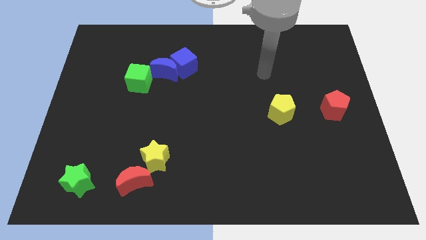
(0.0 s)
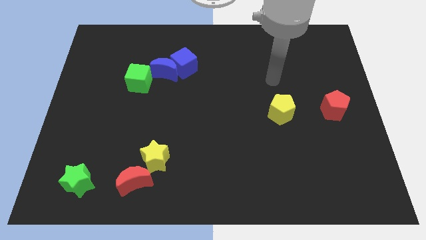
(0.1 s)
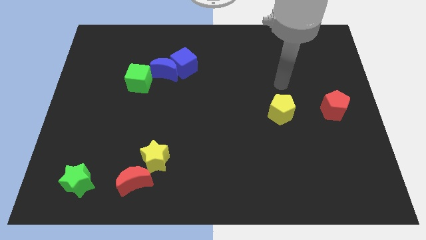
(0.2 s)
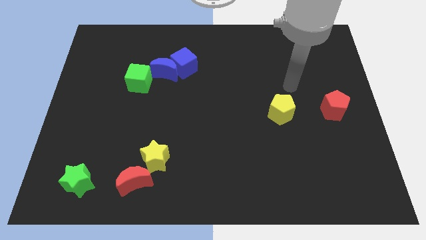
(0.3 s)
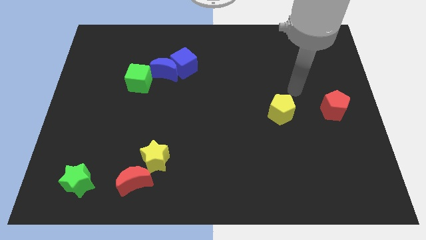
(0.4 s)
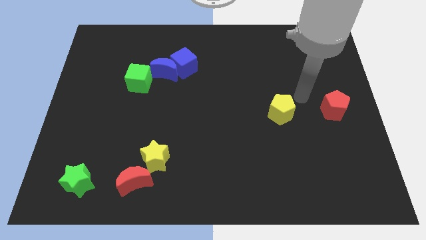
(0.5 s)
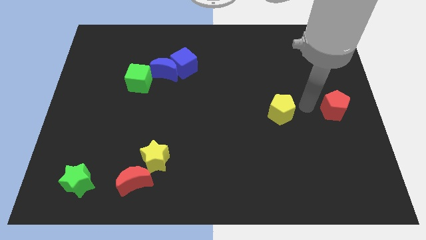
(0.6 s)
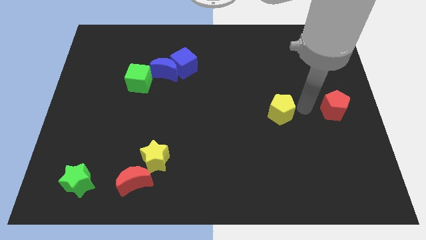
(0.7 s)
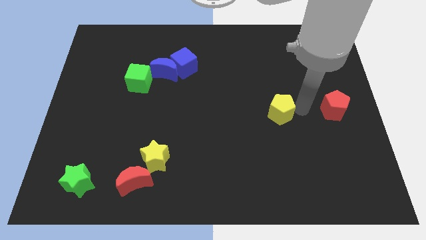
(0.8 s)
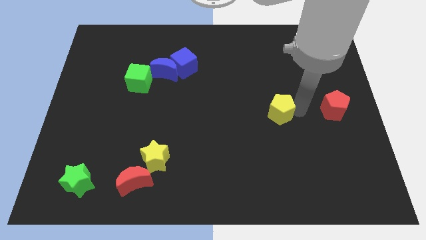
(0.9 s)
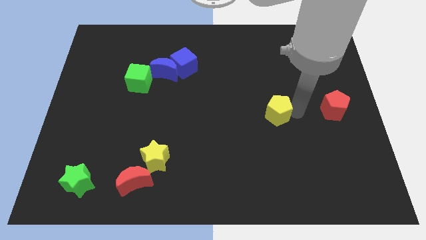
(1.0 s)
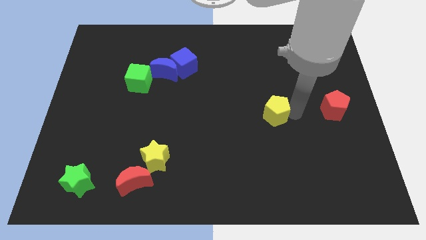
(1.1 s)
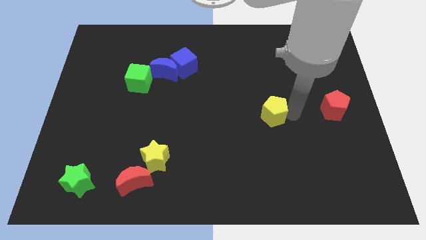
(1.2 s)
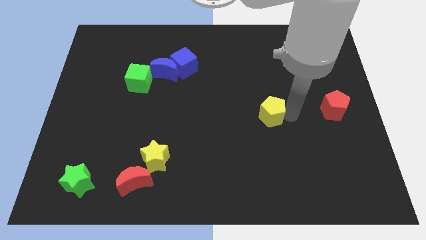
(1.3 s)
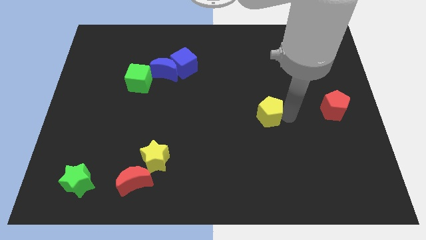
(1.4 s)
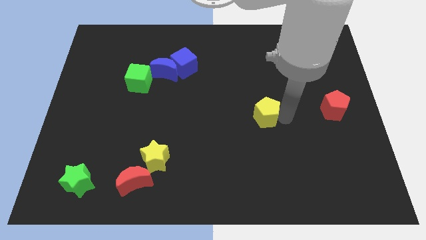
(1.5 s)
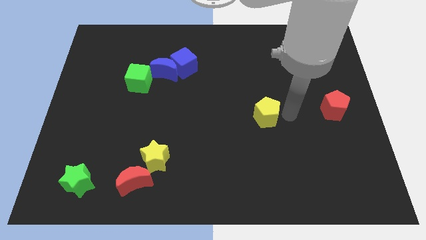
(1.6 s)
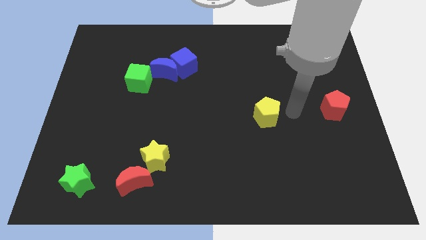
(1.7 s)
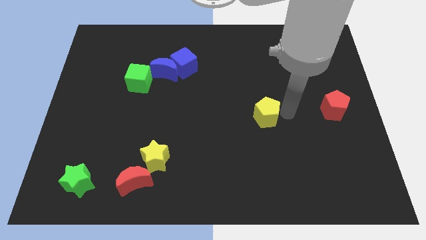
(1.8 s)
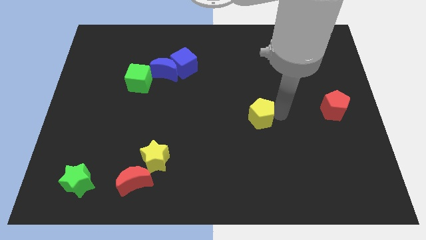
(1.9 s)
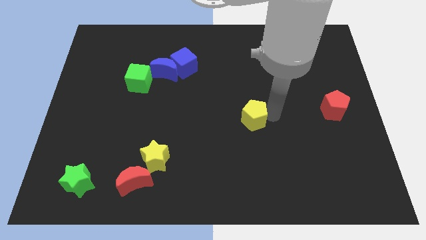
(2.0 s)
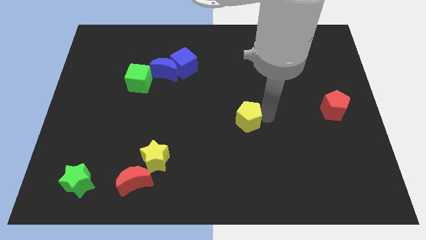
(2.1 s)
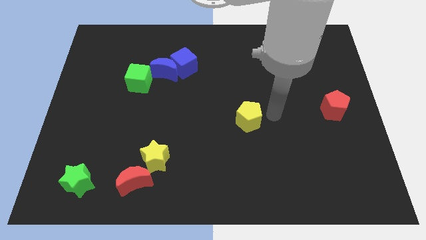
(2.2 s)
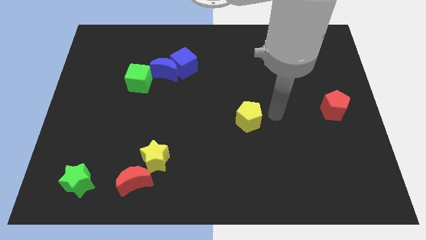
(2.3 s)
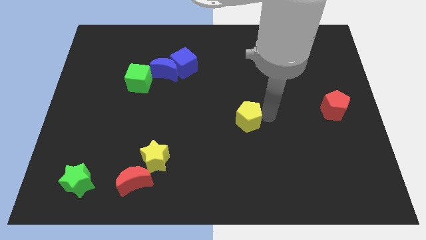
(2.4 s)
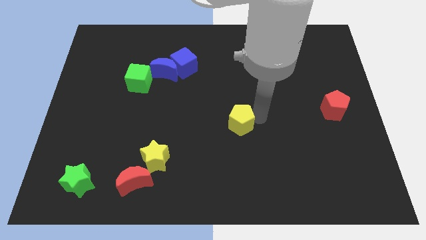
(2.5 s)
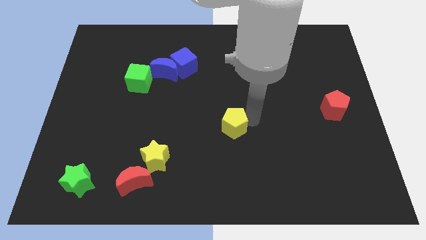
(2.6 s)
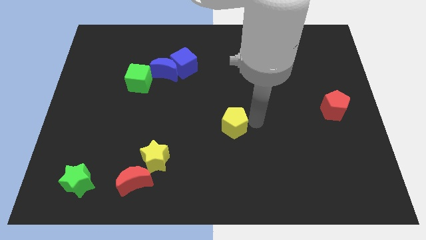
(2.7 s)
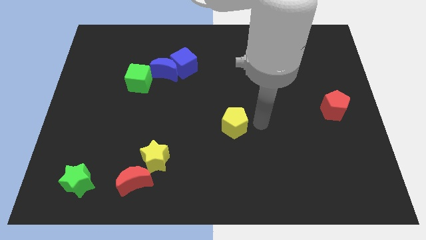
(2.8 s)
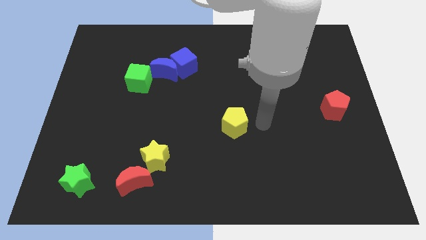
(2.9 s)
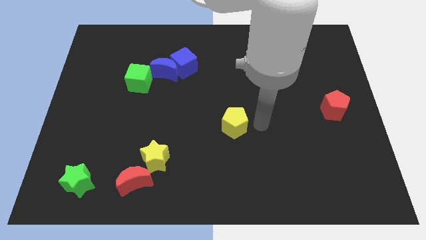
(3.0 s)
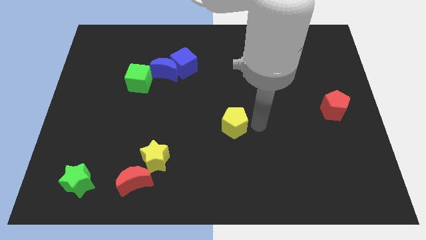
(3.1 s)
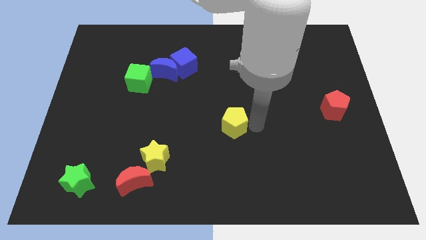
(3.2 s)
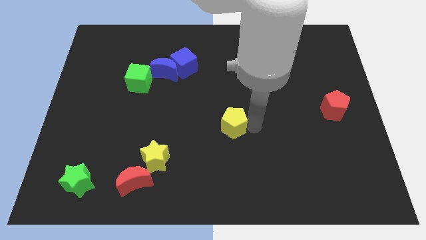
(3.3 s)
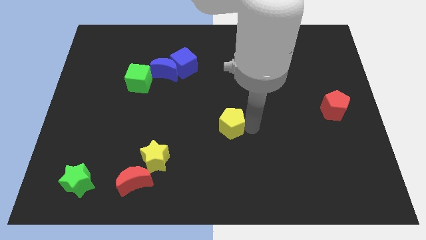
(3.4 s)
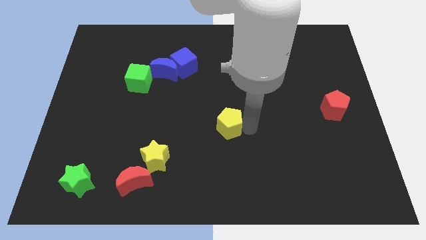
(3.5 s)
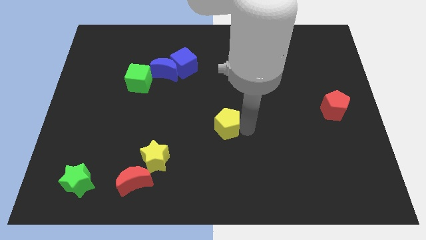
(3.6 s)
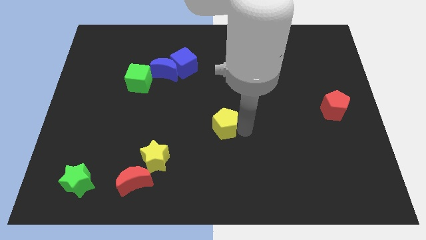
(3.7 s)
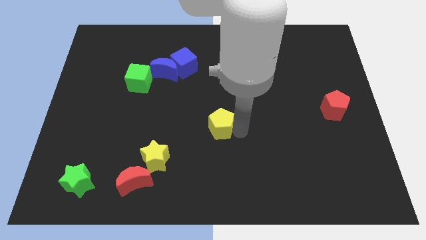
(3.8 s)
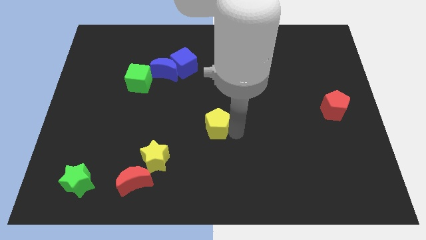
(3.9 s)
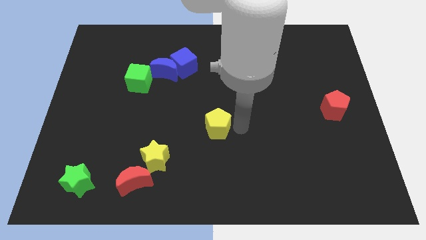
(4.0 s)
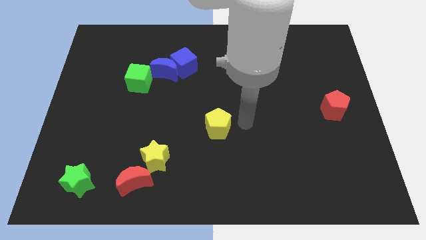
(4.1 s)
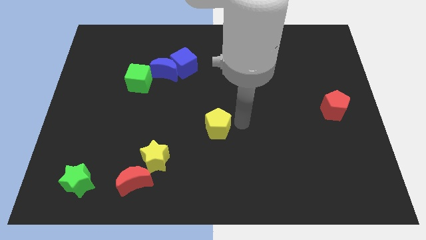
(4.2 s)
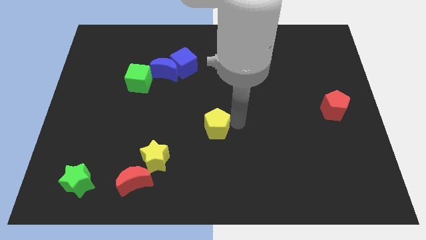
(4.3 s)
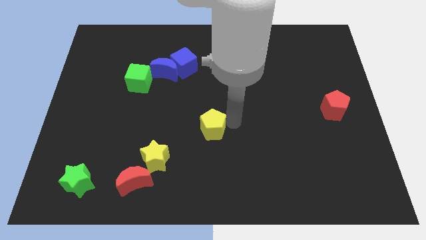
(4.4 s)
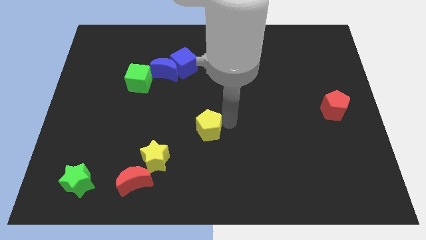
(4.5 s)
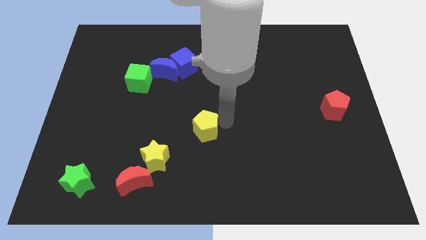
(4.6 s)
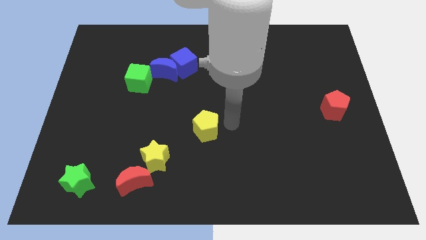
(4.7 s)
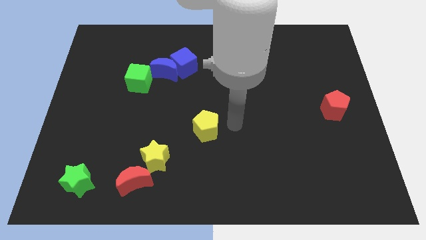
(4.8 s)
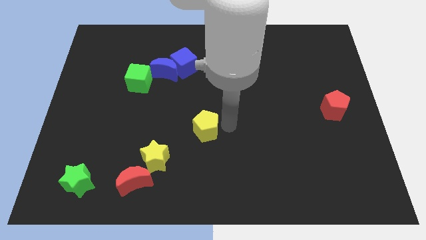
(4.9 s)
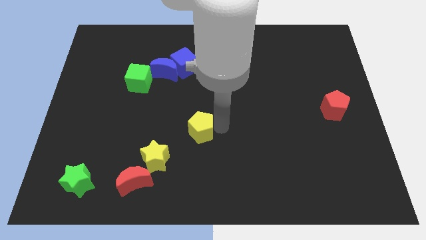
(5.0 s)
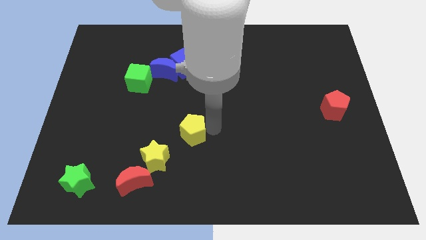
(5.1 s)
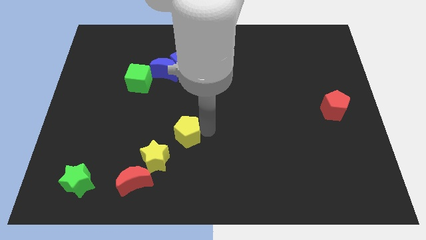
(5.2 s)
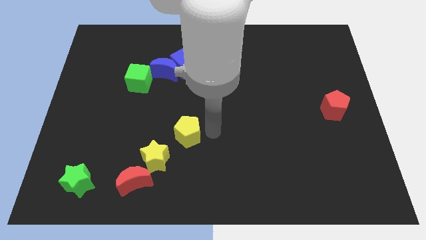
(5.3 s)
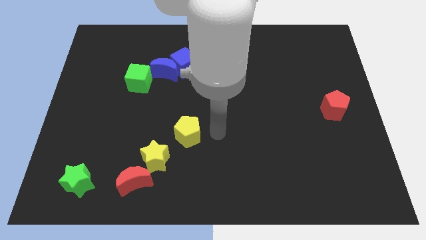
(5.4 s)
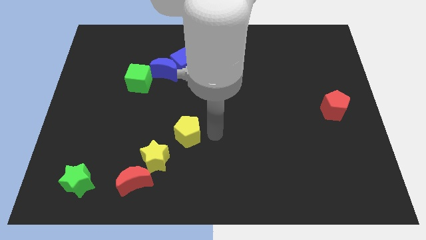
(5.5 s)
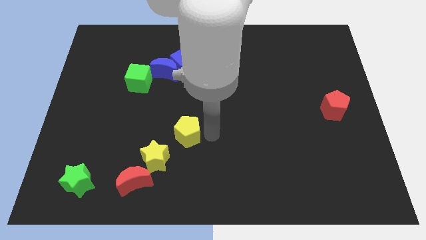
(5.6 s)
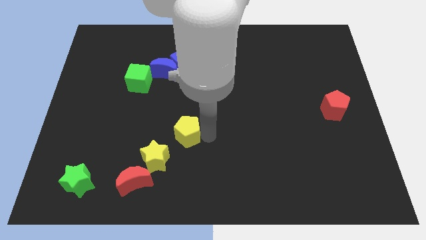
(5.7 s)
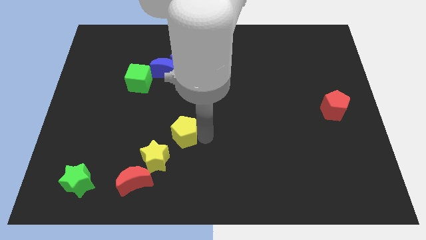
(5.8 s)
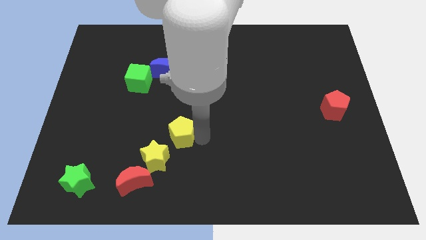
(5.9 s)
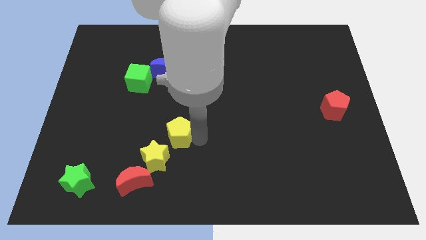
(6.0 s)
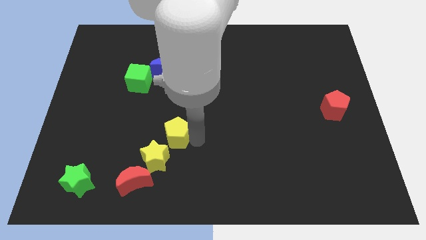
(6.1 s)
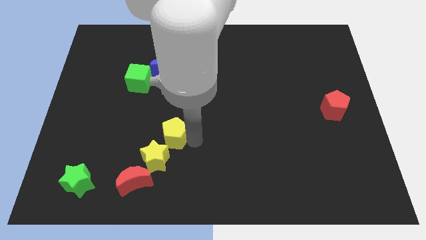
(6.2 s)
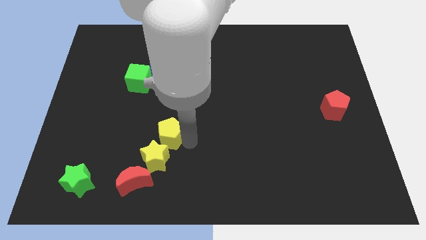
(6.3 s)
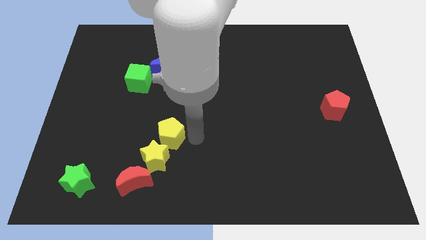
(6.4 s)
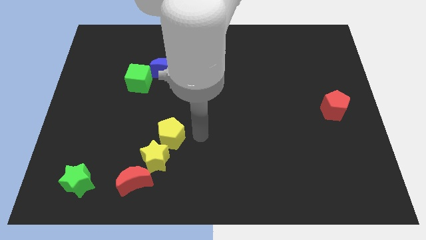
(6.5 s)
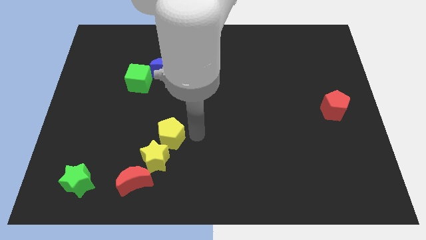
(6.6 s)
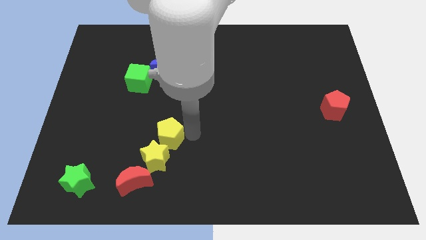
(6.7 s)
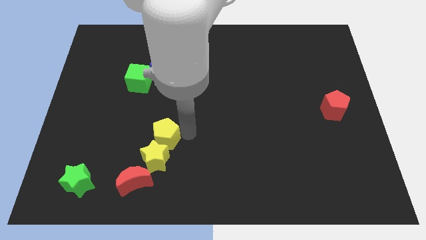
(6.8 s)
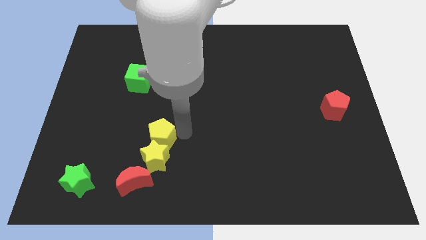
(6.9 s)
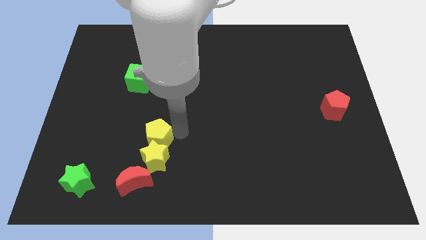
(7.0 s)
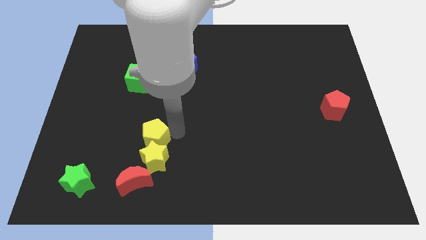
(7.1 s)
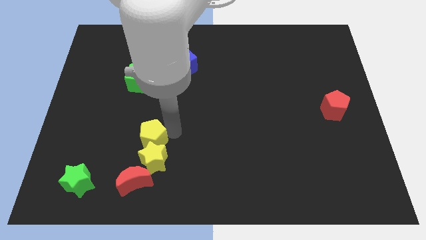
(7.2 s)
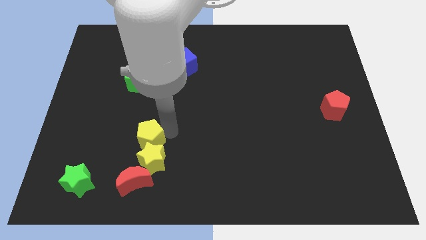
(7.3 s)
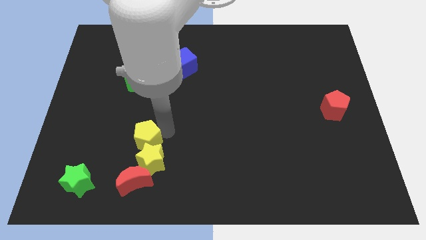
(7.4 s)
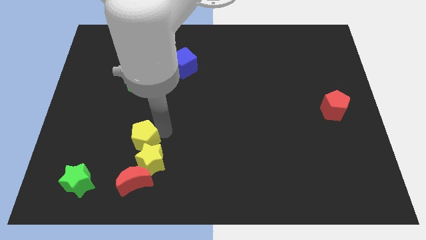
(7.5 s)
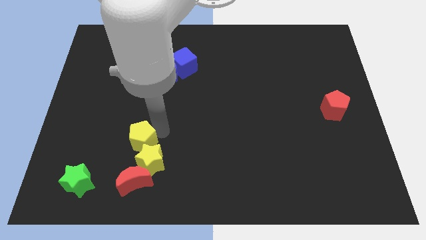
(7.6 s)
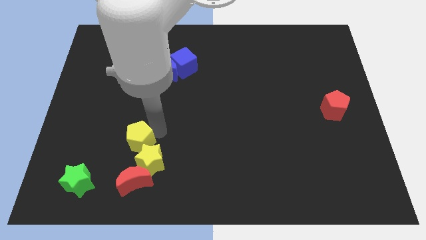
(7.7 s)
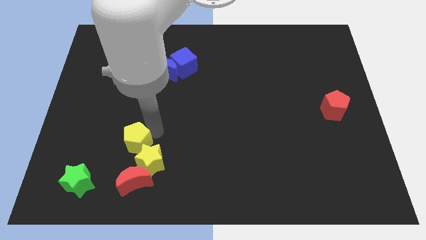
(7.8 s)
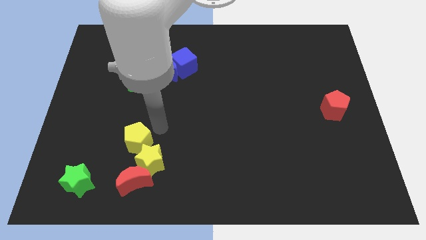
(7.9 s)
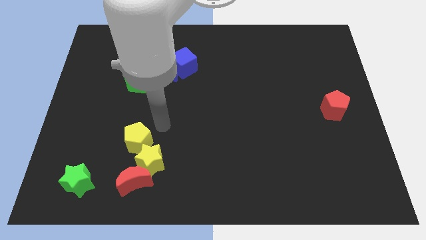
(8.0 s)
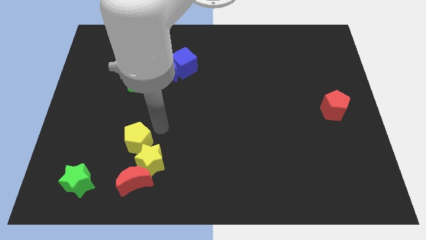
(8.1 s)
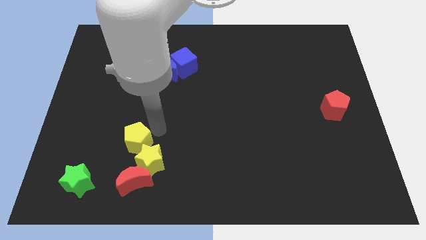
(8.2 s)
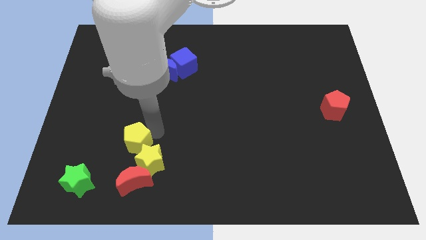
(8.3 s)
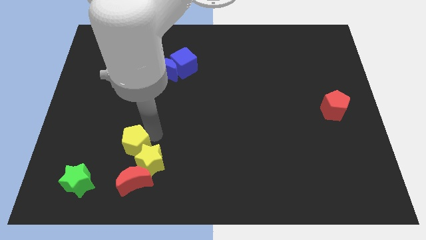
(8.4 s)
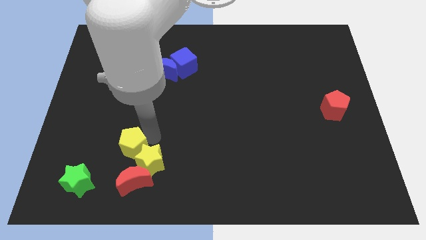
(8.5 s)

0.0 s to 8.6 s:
slide the yellow pentagon to the top left side of the red moon
